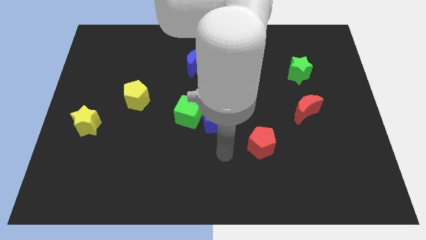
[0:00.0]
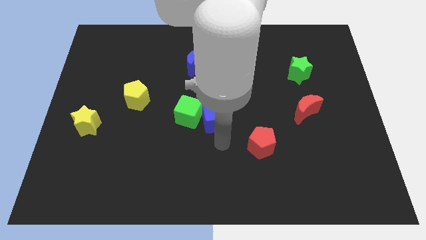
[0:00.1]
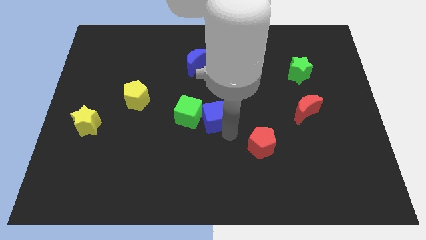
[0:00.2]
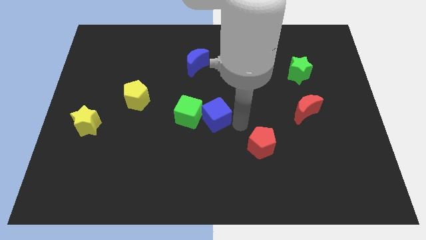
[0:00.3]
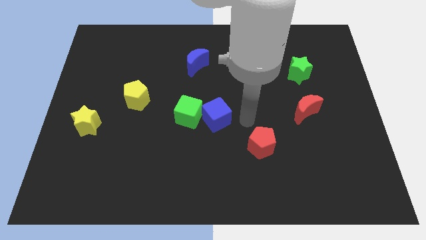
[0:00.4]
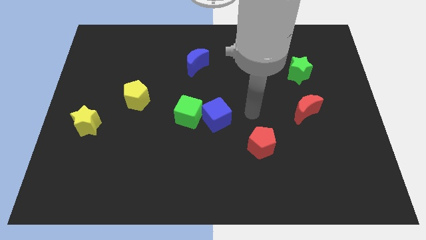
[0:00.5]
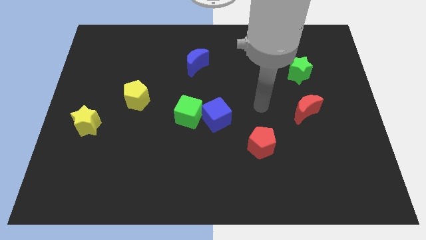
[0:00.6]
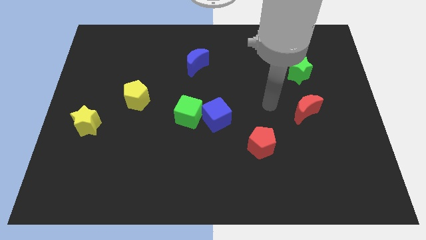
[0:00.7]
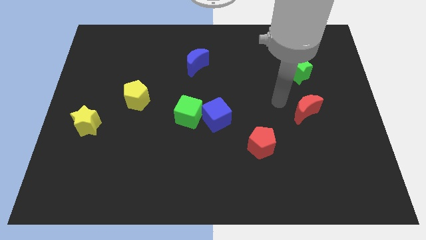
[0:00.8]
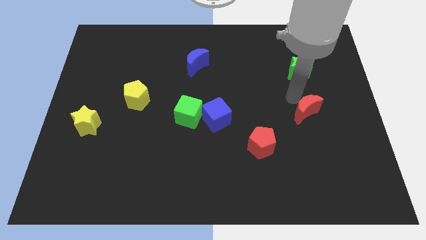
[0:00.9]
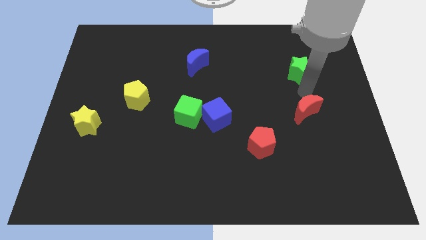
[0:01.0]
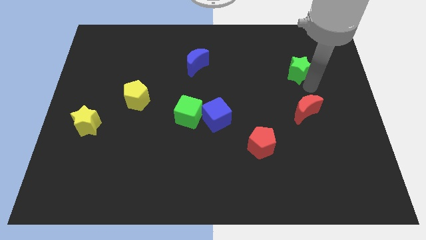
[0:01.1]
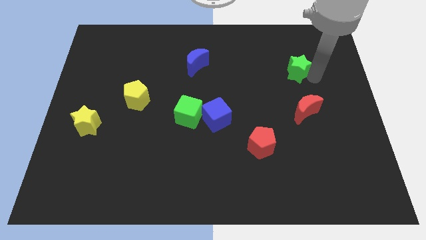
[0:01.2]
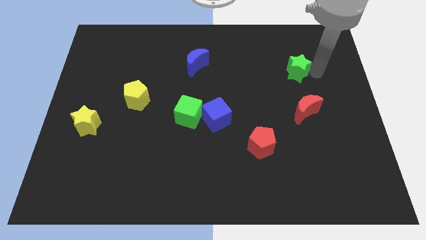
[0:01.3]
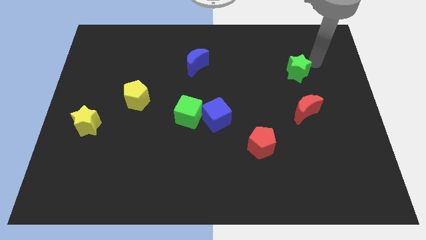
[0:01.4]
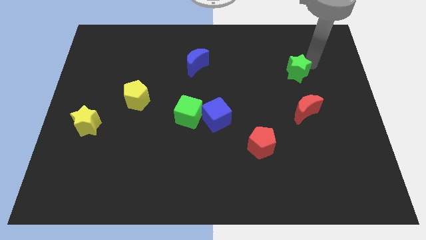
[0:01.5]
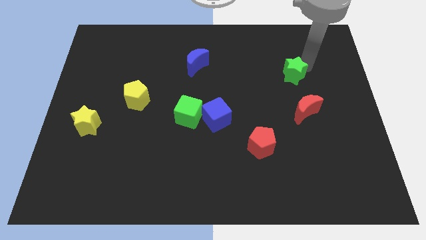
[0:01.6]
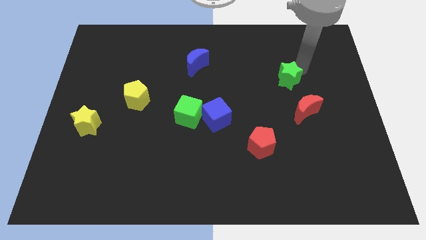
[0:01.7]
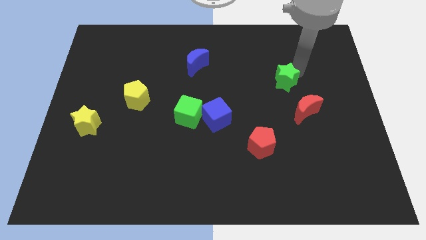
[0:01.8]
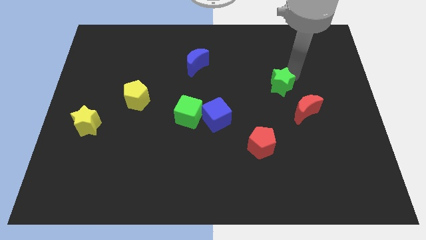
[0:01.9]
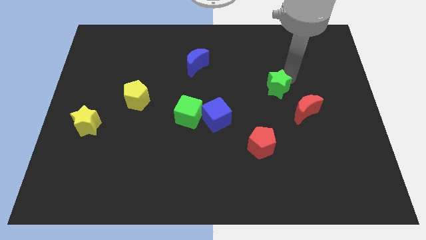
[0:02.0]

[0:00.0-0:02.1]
move the green star slightly down and to the left diagonally

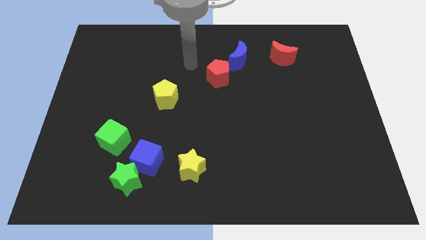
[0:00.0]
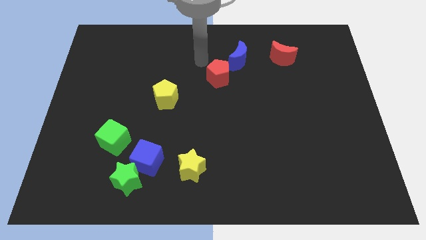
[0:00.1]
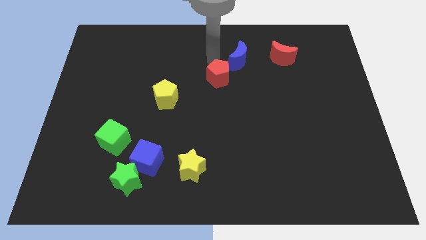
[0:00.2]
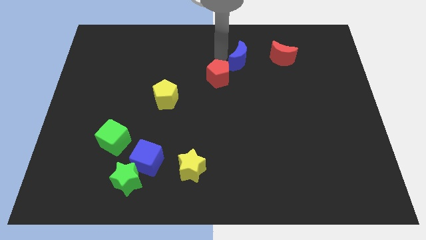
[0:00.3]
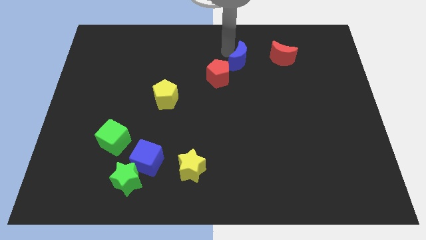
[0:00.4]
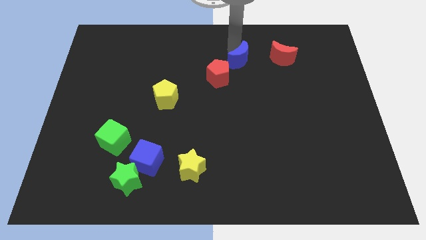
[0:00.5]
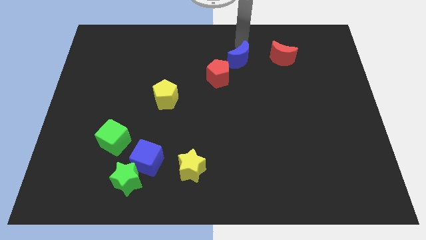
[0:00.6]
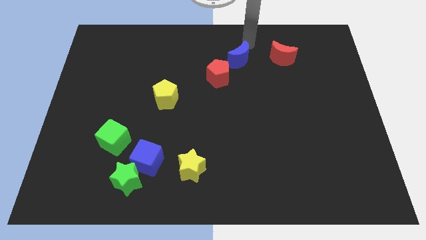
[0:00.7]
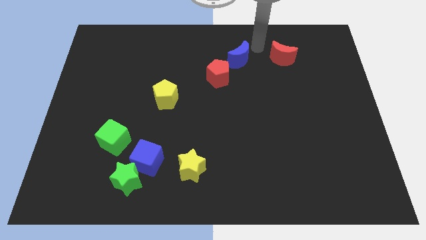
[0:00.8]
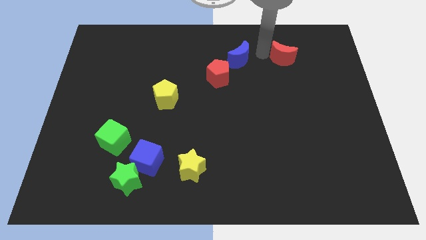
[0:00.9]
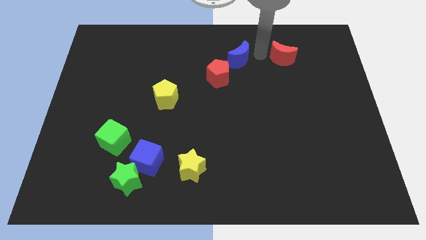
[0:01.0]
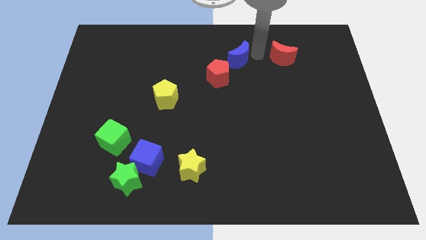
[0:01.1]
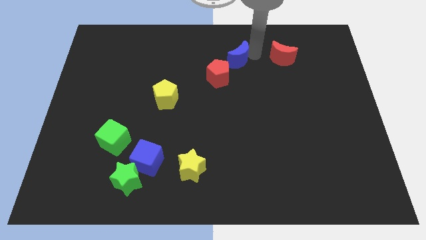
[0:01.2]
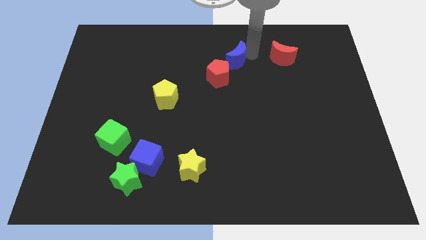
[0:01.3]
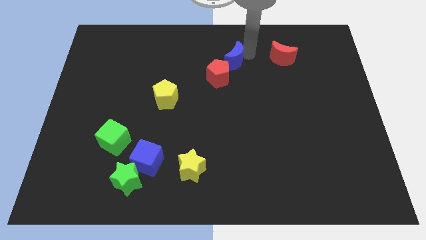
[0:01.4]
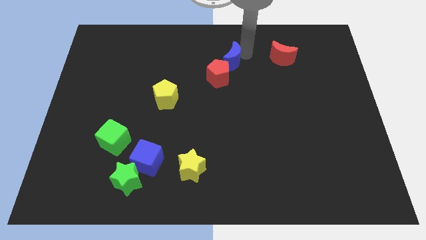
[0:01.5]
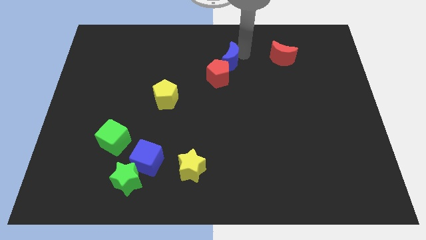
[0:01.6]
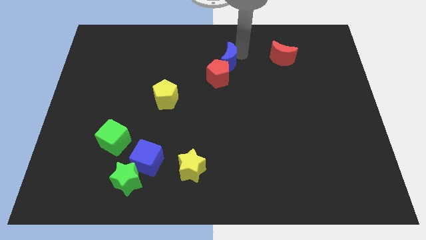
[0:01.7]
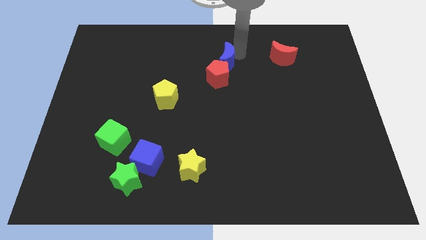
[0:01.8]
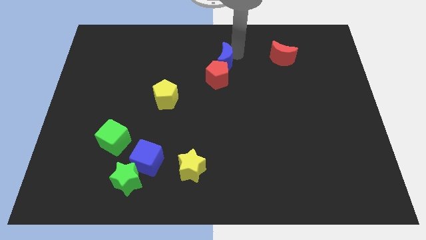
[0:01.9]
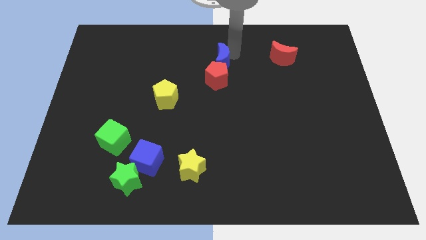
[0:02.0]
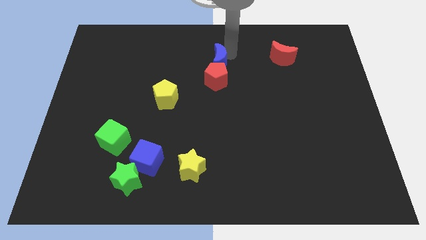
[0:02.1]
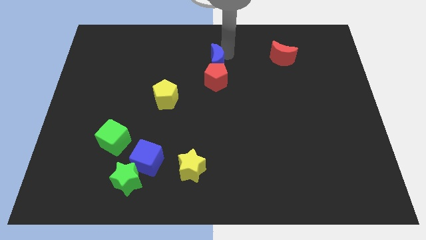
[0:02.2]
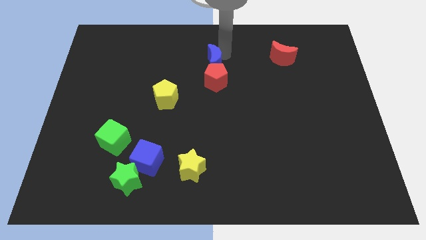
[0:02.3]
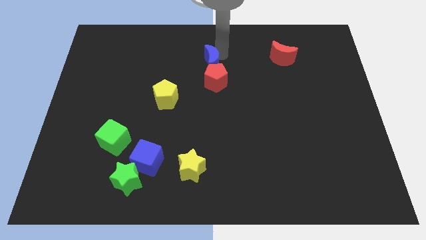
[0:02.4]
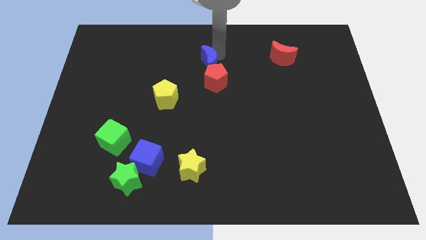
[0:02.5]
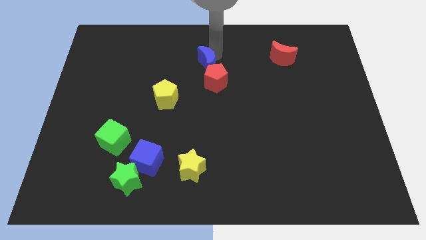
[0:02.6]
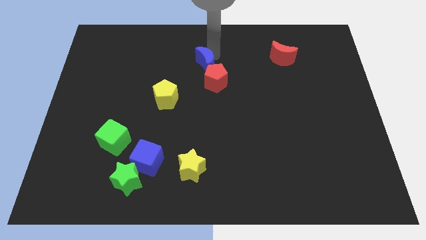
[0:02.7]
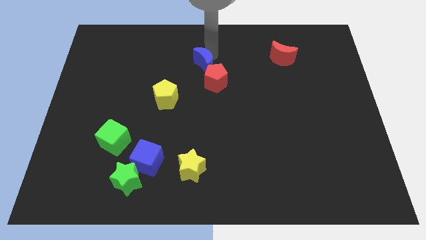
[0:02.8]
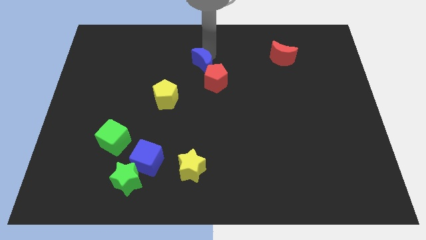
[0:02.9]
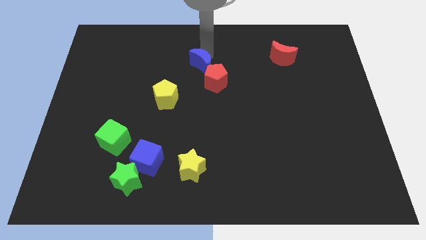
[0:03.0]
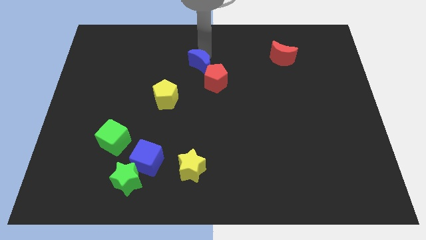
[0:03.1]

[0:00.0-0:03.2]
push the blue moon down and then left somewhat

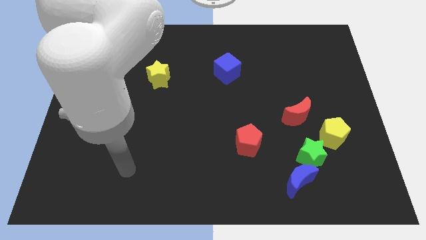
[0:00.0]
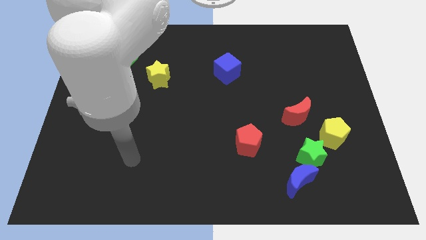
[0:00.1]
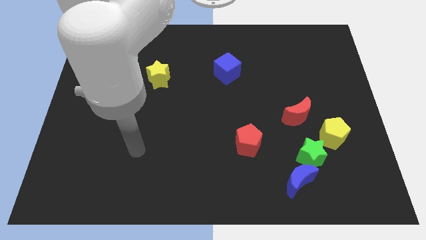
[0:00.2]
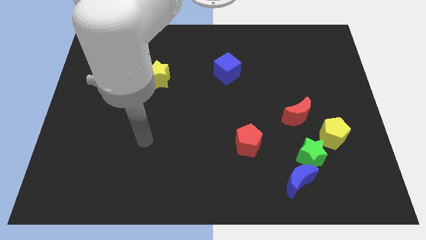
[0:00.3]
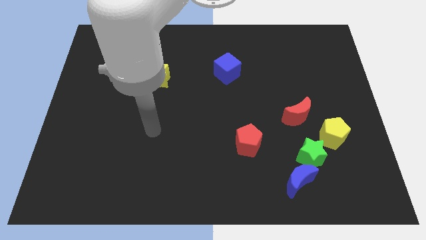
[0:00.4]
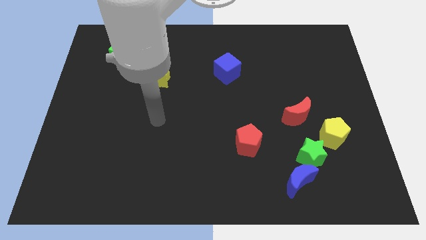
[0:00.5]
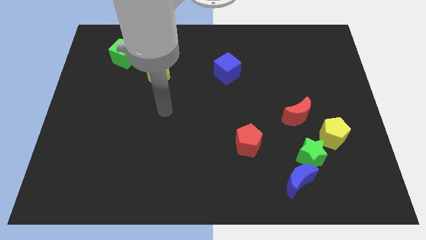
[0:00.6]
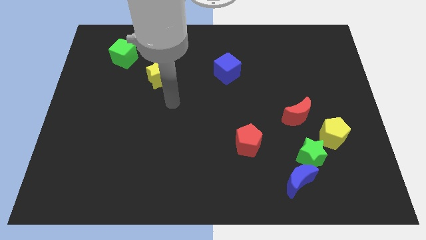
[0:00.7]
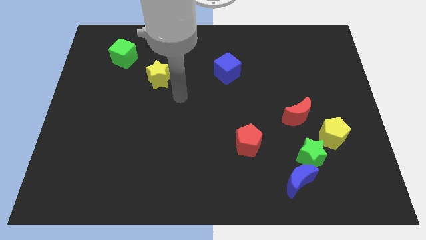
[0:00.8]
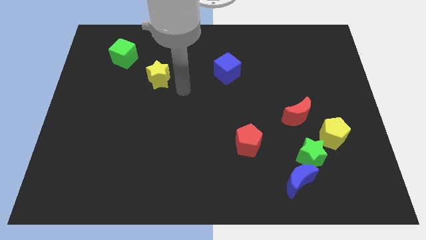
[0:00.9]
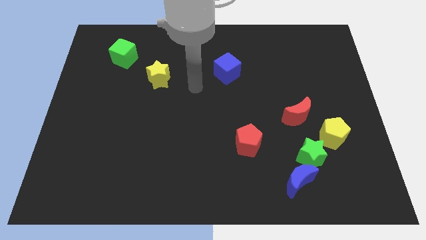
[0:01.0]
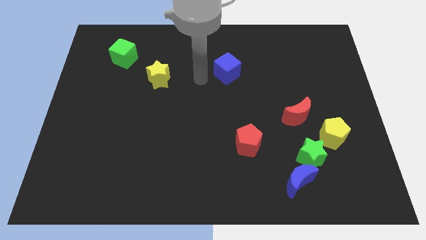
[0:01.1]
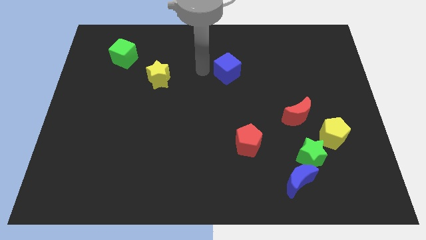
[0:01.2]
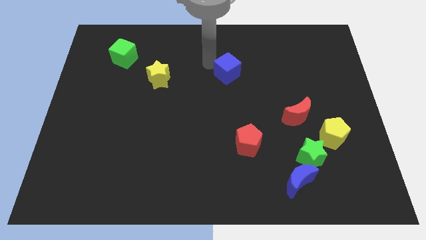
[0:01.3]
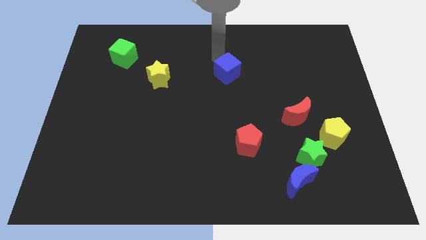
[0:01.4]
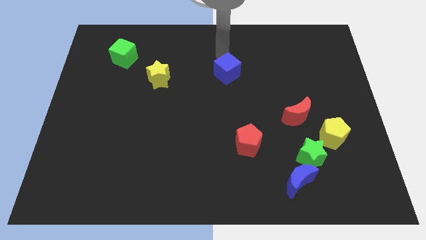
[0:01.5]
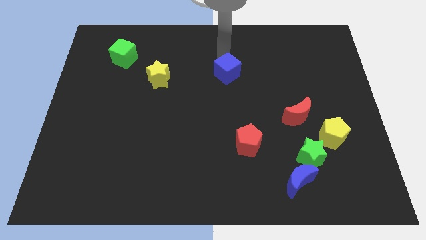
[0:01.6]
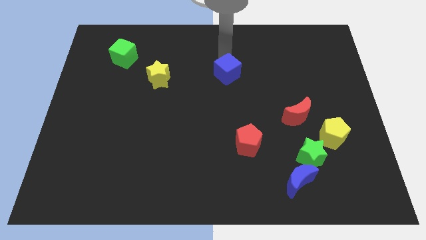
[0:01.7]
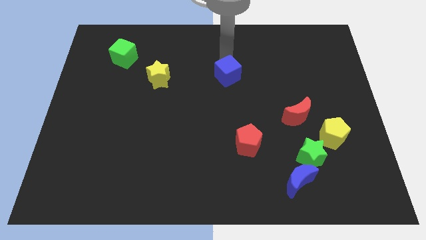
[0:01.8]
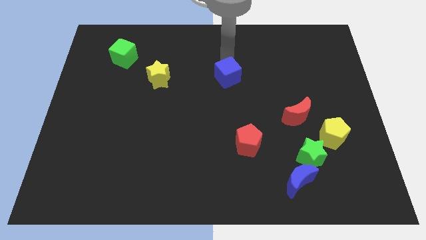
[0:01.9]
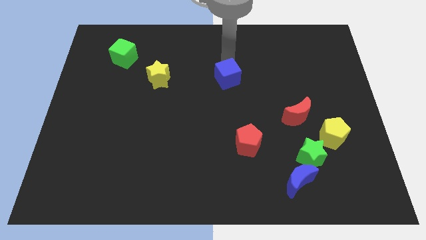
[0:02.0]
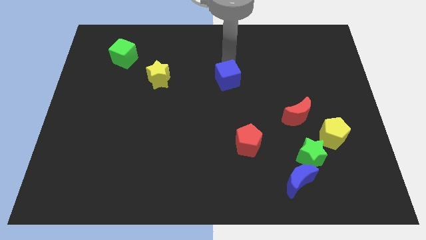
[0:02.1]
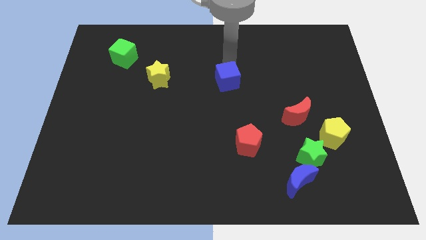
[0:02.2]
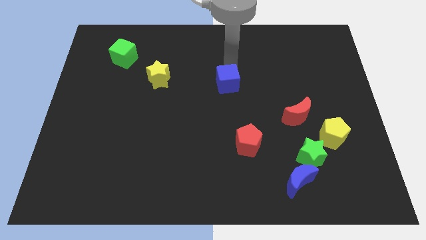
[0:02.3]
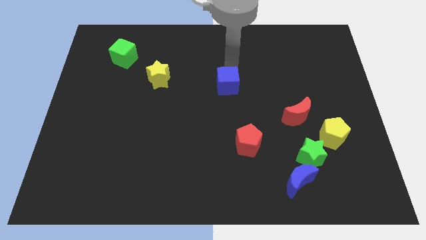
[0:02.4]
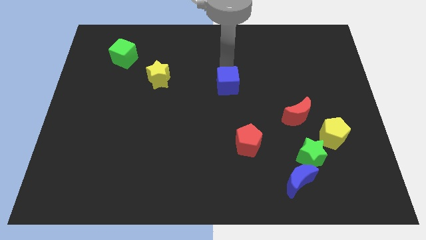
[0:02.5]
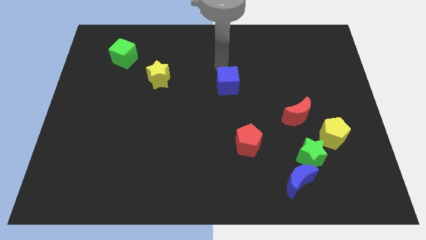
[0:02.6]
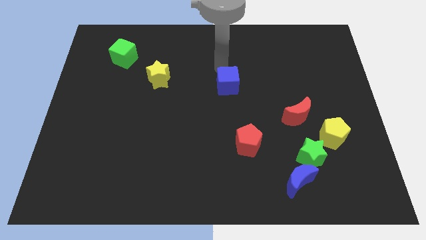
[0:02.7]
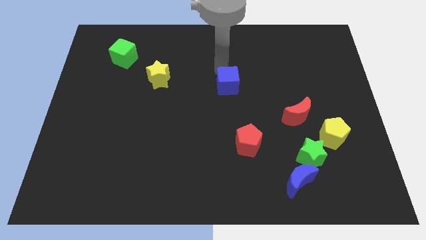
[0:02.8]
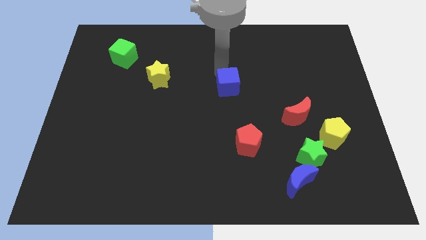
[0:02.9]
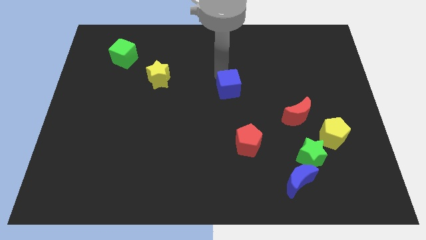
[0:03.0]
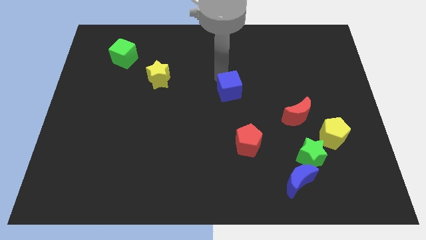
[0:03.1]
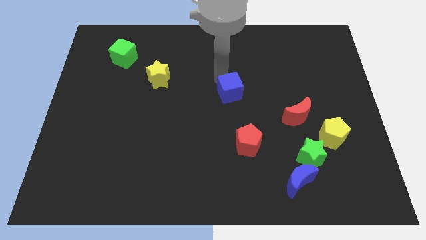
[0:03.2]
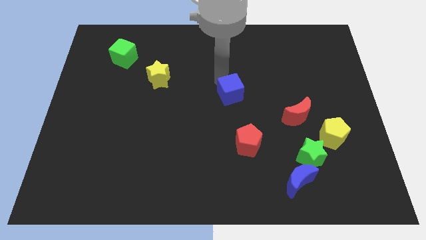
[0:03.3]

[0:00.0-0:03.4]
move the blue cube a little downwards
